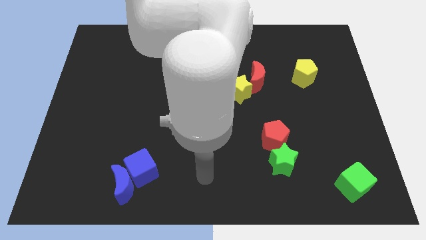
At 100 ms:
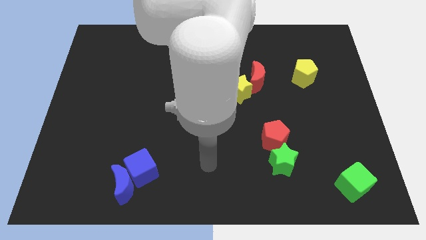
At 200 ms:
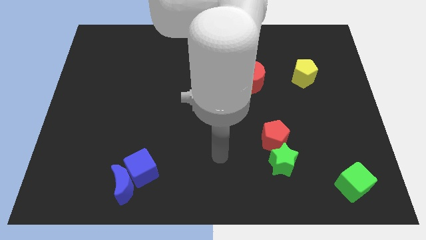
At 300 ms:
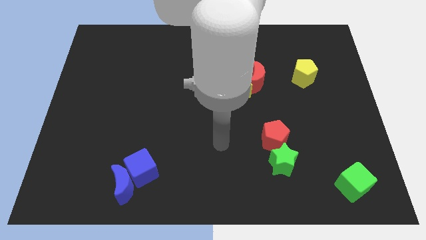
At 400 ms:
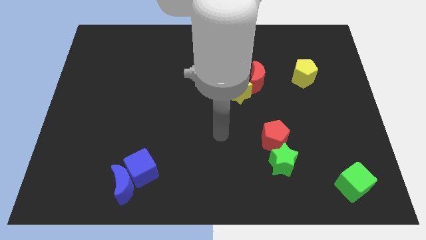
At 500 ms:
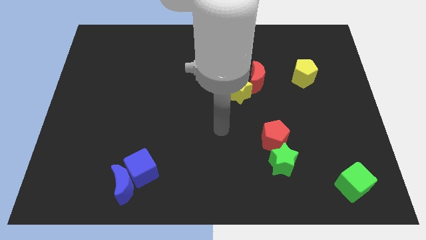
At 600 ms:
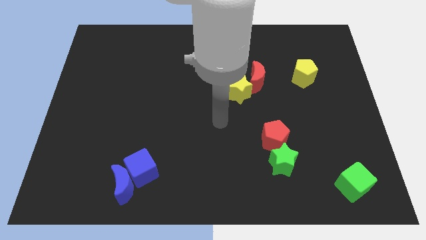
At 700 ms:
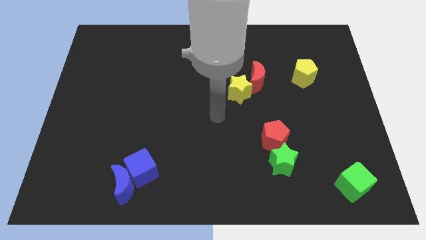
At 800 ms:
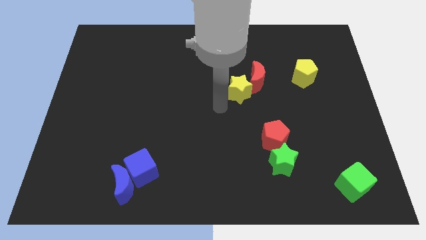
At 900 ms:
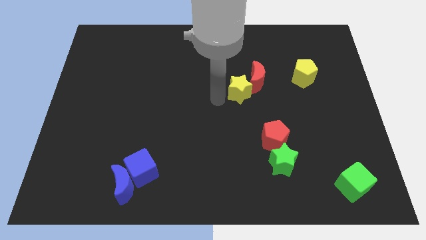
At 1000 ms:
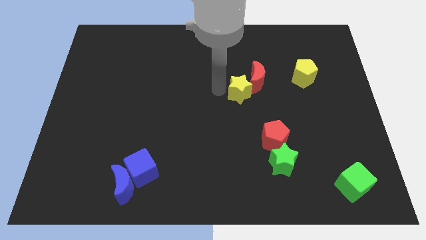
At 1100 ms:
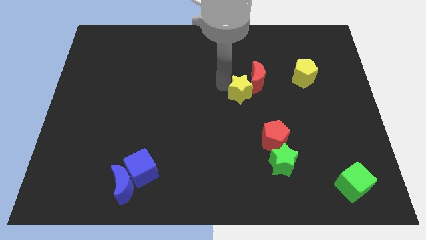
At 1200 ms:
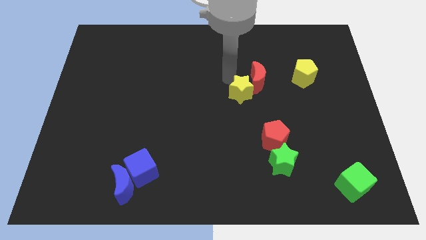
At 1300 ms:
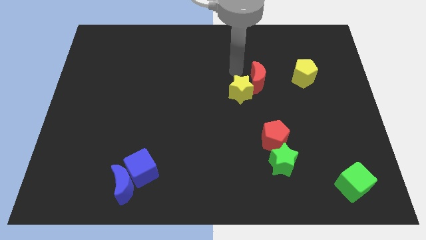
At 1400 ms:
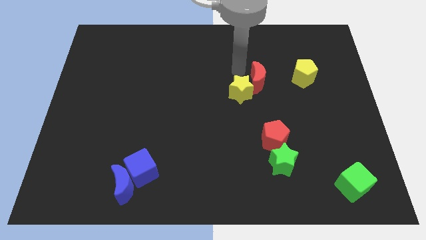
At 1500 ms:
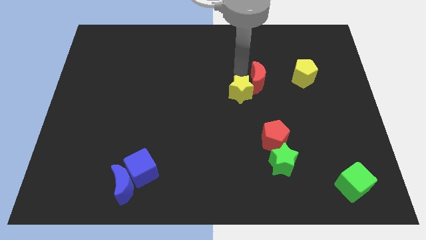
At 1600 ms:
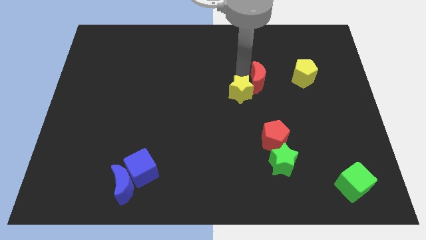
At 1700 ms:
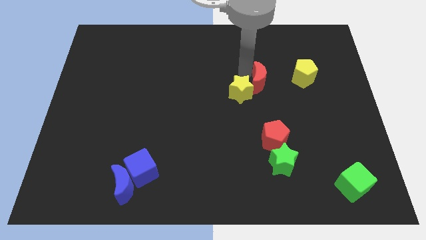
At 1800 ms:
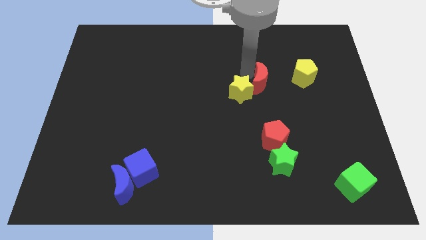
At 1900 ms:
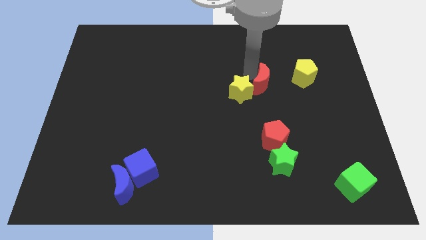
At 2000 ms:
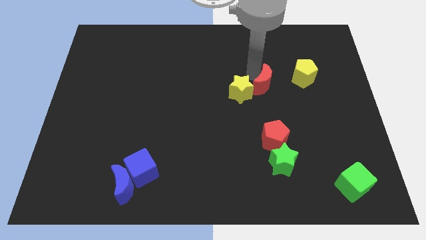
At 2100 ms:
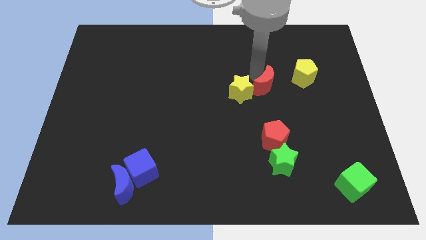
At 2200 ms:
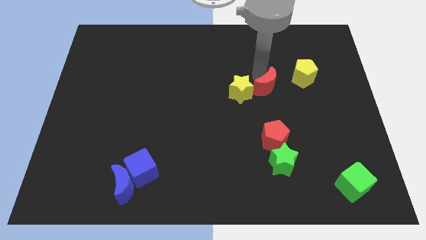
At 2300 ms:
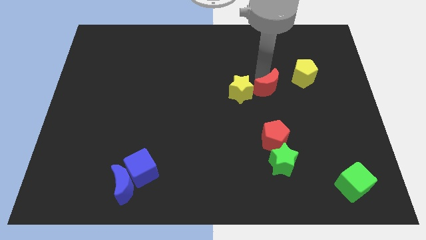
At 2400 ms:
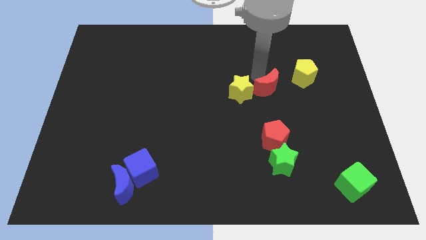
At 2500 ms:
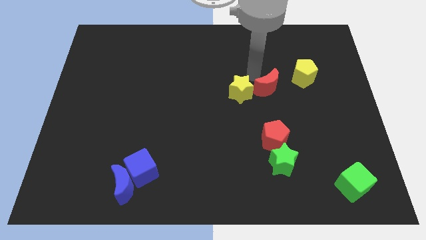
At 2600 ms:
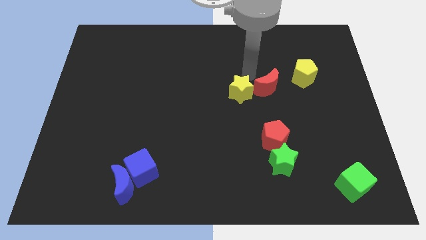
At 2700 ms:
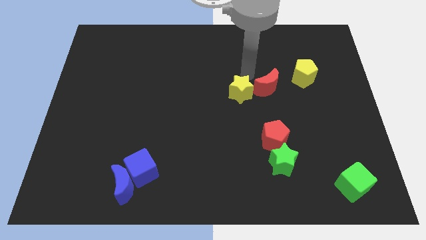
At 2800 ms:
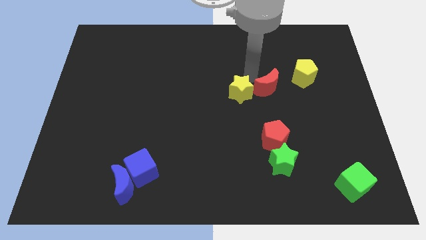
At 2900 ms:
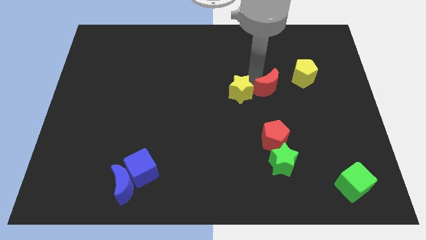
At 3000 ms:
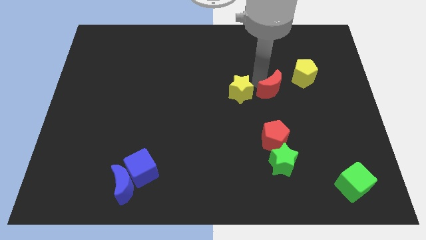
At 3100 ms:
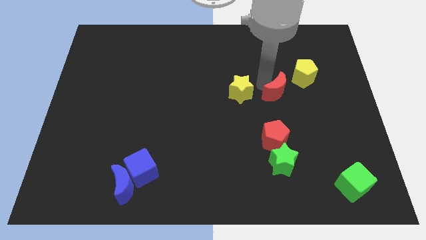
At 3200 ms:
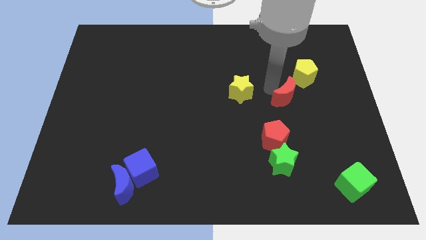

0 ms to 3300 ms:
push the red moon down and then to the right a little bit

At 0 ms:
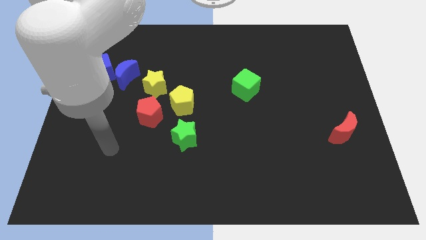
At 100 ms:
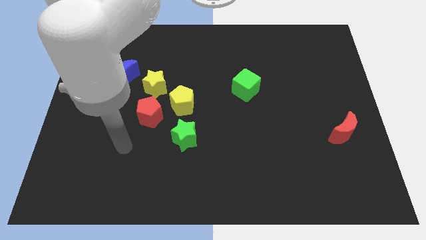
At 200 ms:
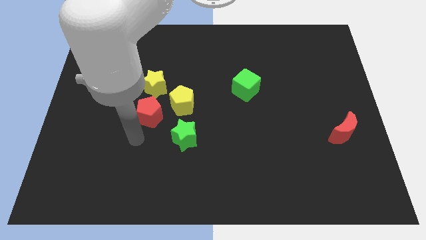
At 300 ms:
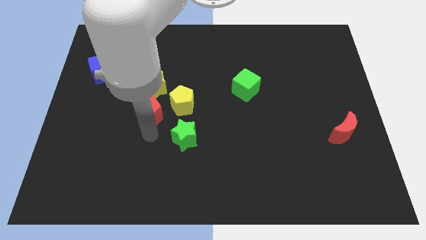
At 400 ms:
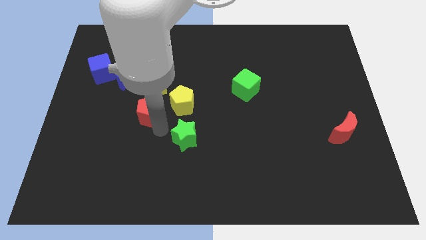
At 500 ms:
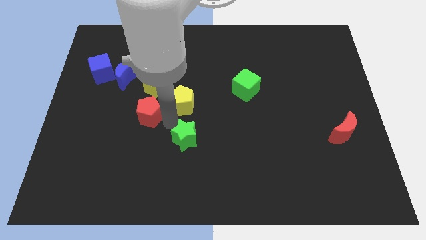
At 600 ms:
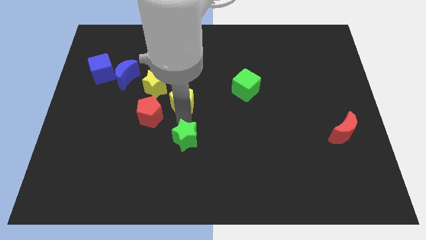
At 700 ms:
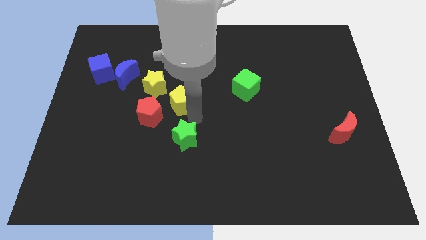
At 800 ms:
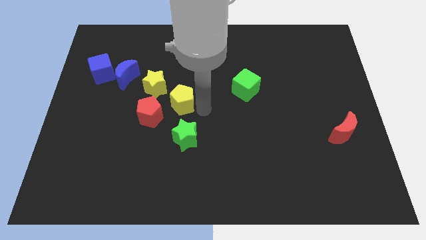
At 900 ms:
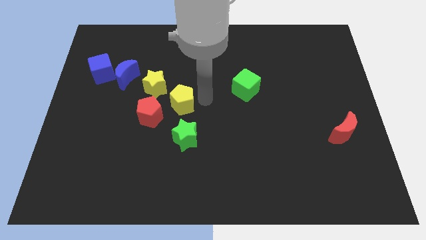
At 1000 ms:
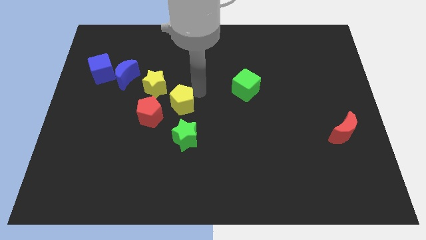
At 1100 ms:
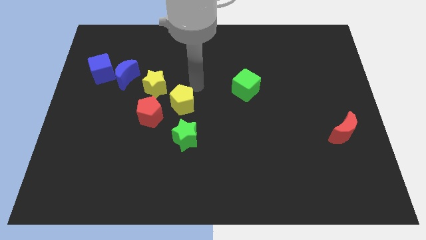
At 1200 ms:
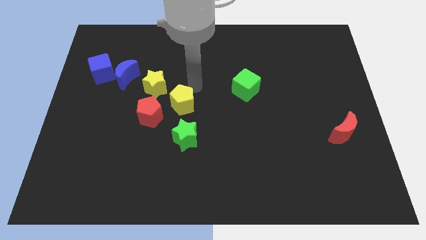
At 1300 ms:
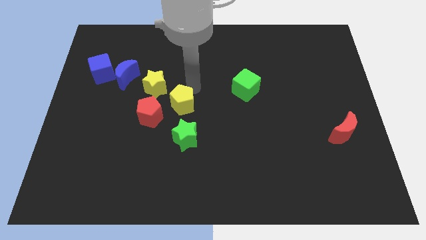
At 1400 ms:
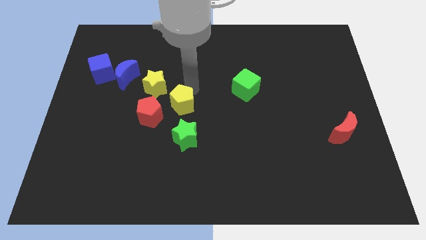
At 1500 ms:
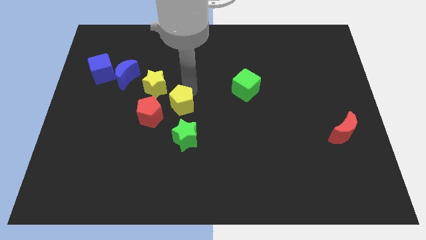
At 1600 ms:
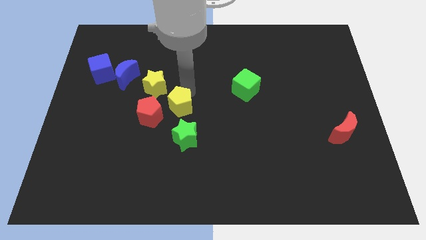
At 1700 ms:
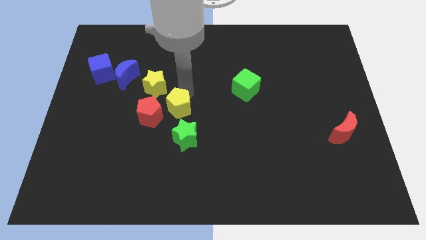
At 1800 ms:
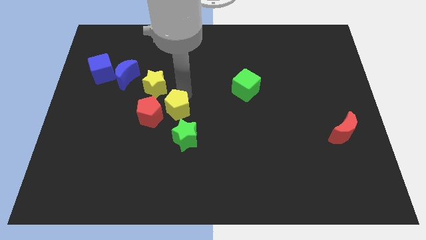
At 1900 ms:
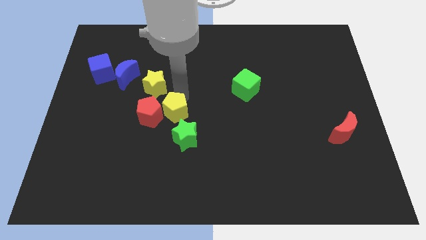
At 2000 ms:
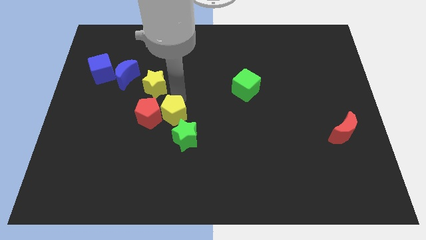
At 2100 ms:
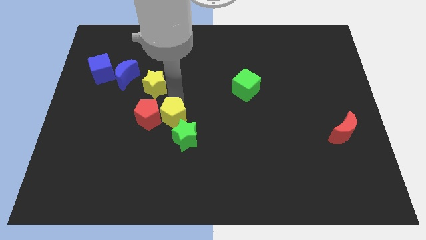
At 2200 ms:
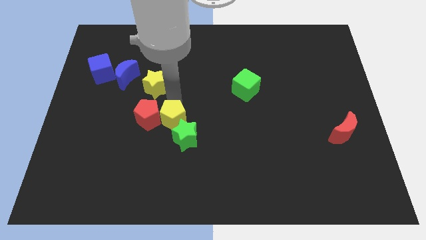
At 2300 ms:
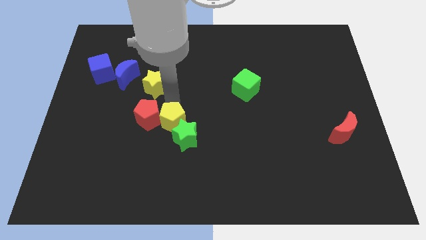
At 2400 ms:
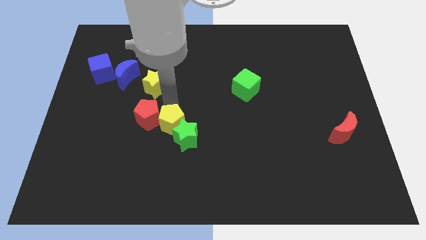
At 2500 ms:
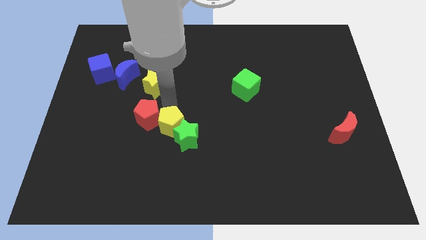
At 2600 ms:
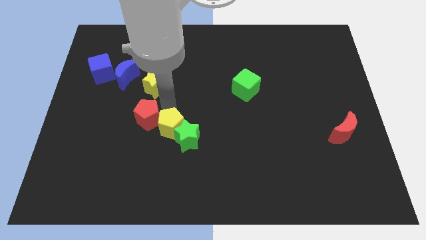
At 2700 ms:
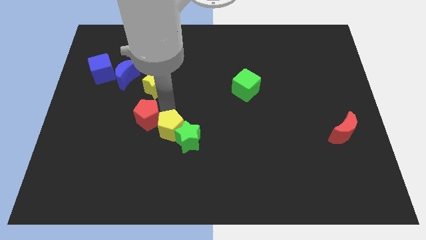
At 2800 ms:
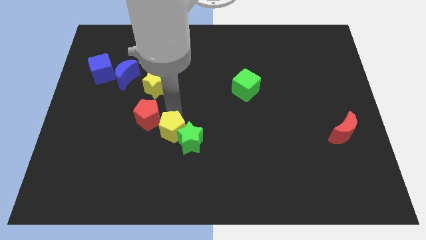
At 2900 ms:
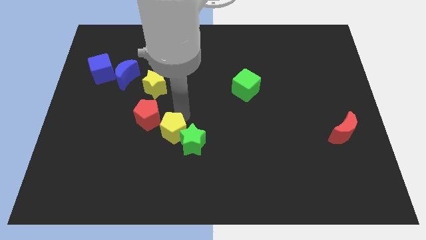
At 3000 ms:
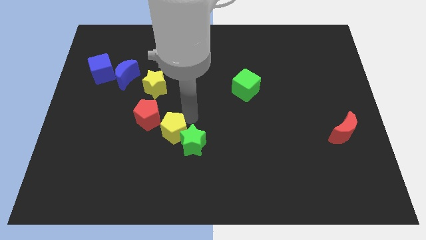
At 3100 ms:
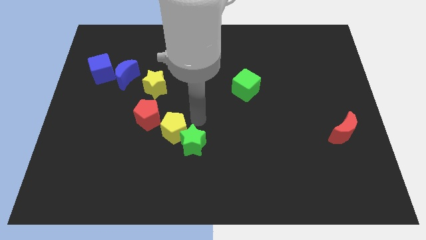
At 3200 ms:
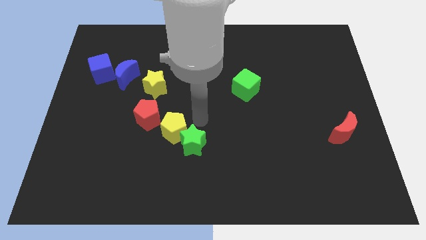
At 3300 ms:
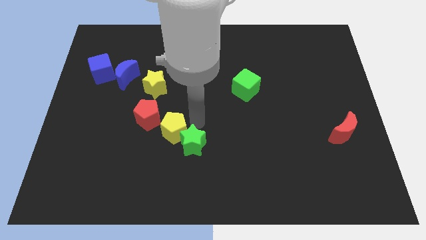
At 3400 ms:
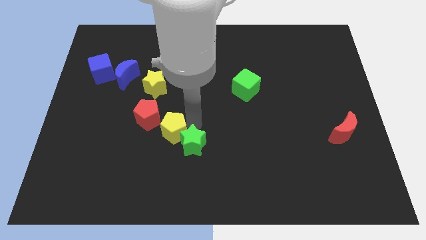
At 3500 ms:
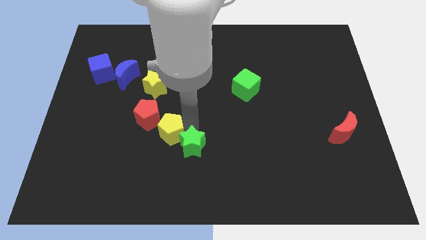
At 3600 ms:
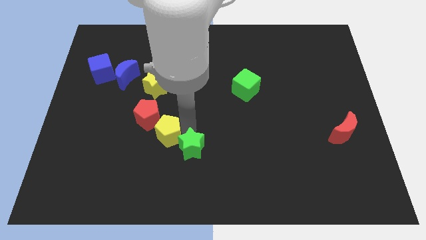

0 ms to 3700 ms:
slide the yellow pentagon slightly down and left diagonally

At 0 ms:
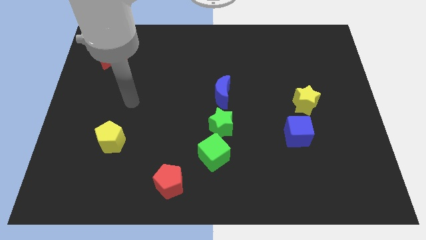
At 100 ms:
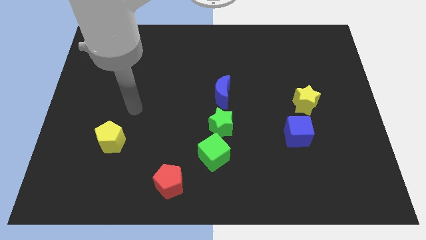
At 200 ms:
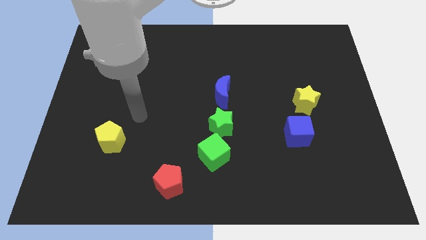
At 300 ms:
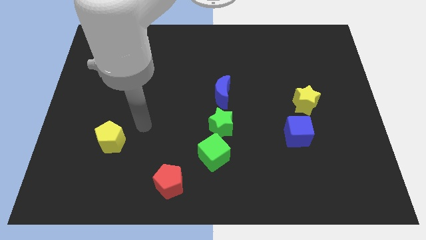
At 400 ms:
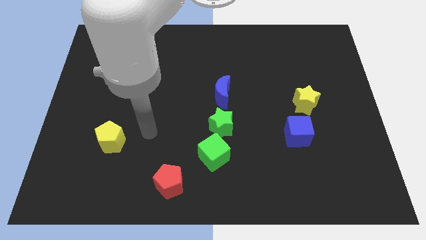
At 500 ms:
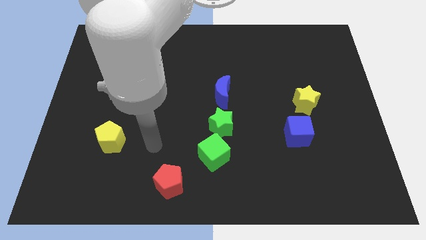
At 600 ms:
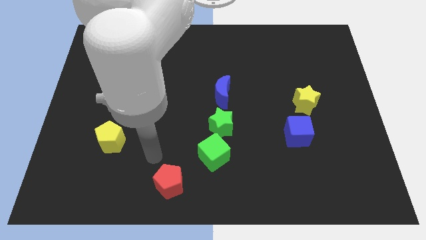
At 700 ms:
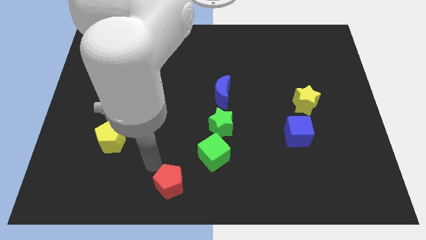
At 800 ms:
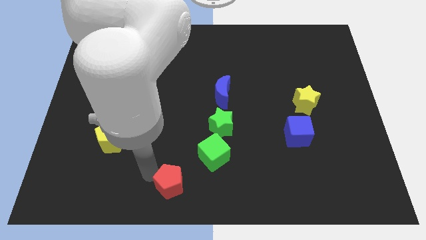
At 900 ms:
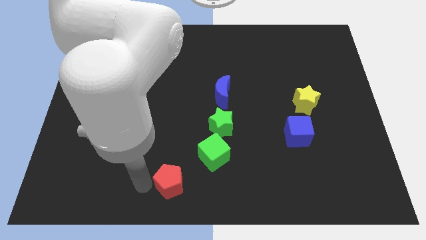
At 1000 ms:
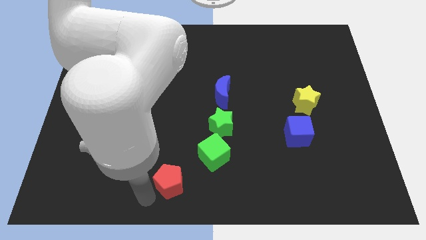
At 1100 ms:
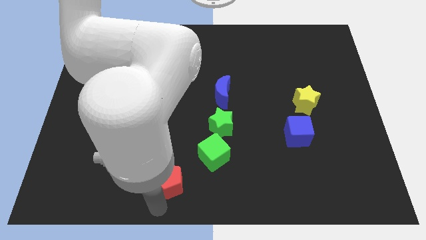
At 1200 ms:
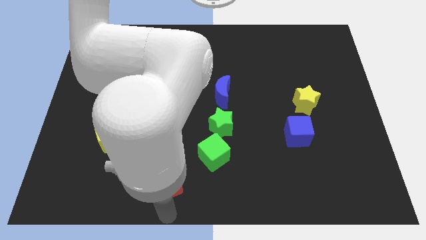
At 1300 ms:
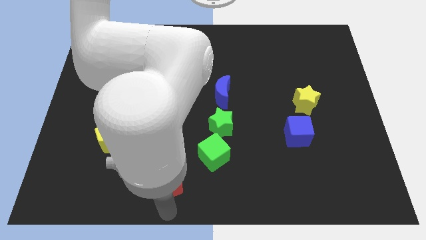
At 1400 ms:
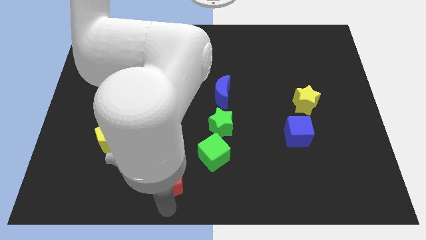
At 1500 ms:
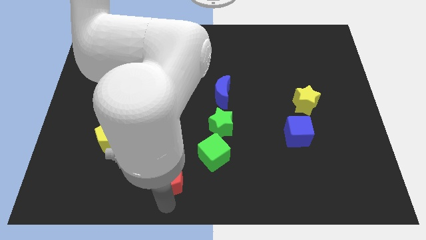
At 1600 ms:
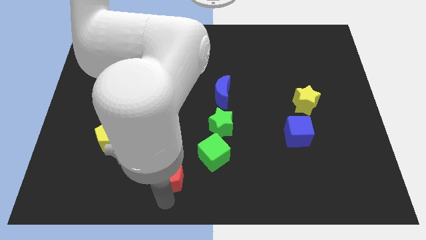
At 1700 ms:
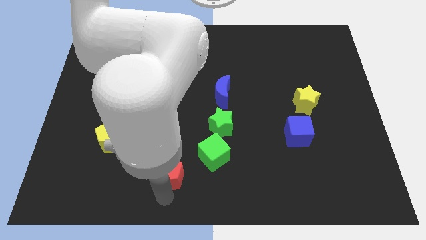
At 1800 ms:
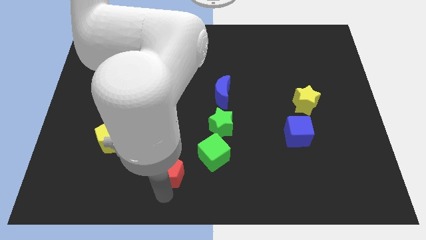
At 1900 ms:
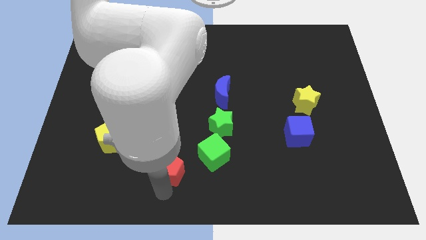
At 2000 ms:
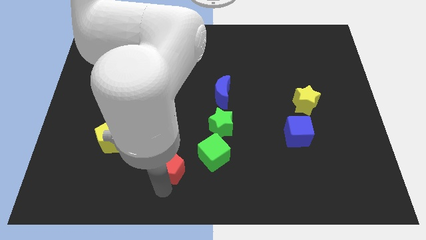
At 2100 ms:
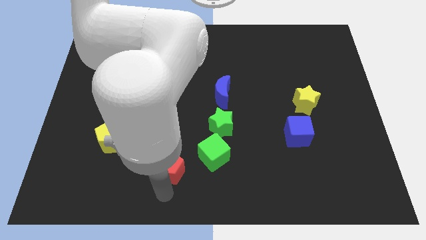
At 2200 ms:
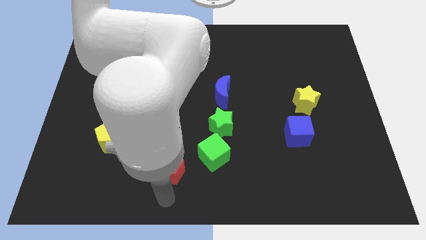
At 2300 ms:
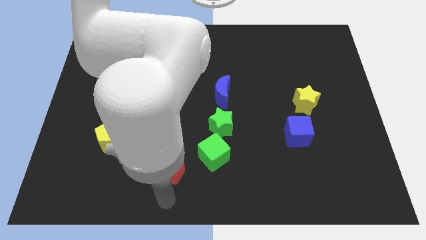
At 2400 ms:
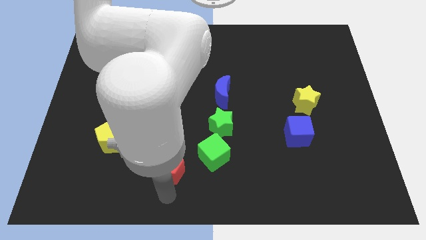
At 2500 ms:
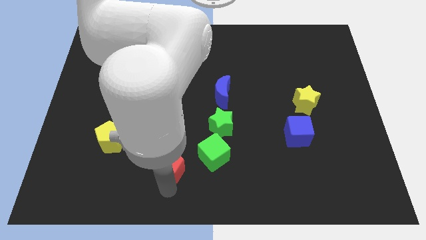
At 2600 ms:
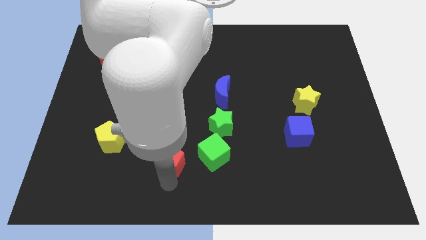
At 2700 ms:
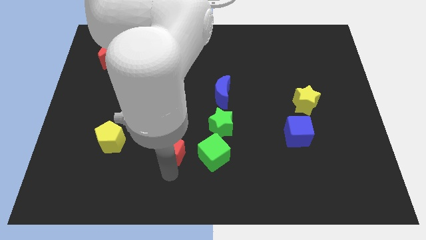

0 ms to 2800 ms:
move the red pentagon somewhat upwards
